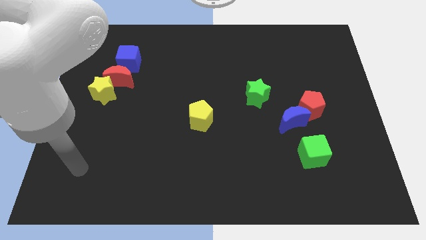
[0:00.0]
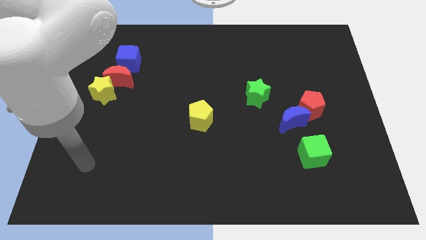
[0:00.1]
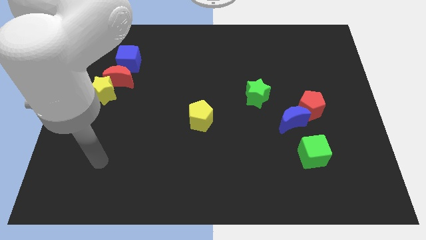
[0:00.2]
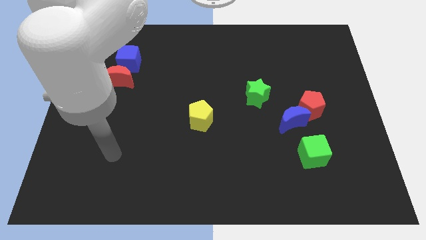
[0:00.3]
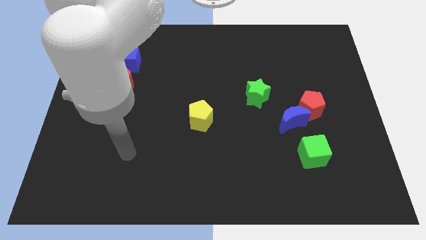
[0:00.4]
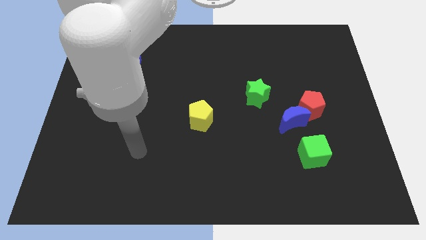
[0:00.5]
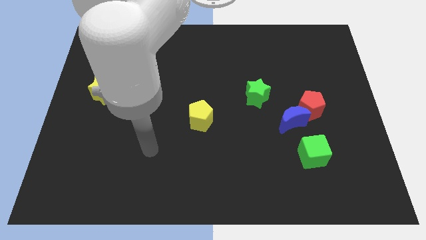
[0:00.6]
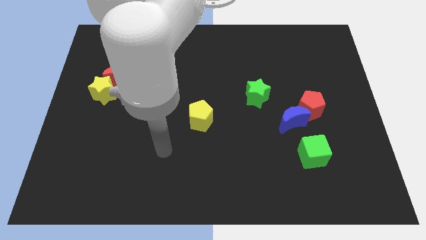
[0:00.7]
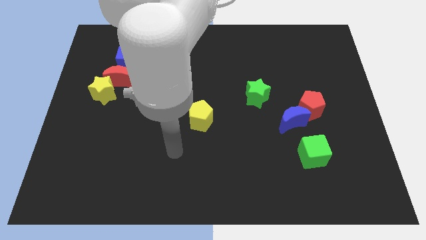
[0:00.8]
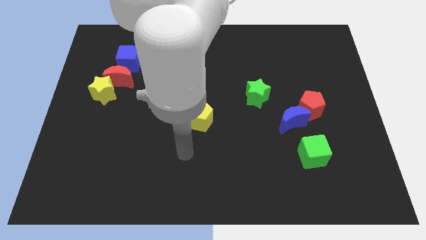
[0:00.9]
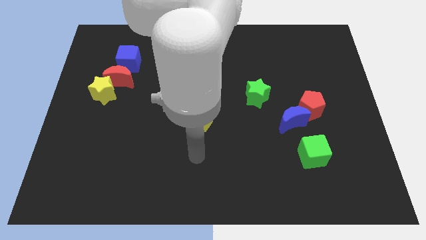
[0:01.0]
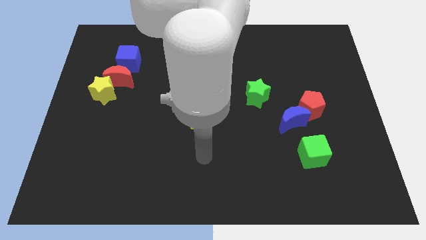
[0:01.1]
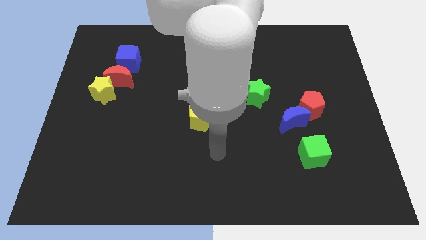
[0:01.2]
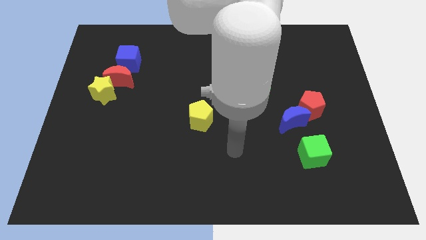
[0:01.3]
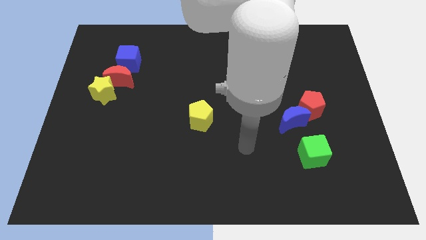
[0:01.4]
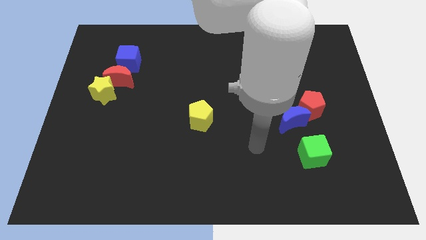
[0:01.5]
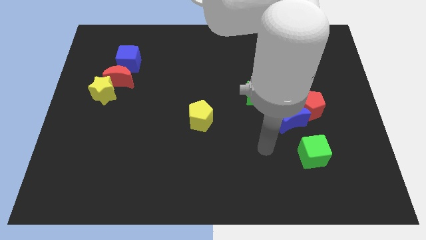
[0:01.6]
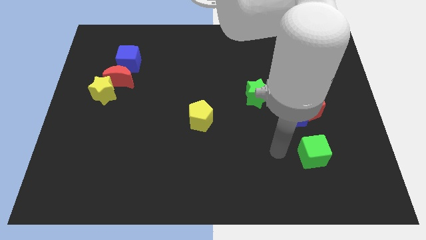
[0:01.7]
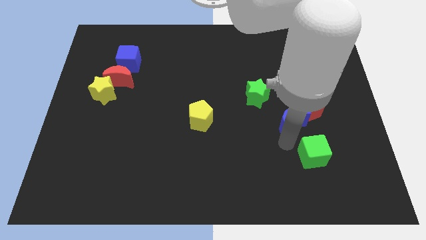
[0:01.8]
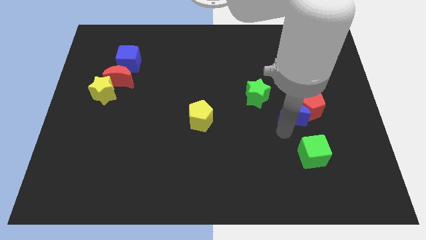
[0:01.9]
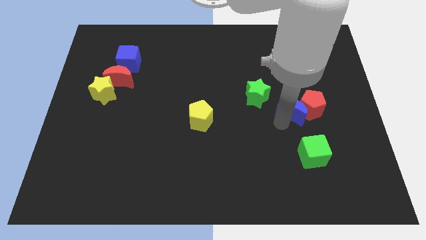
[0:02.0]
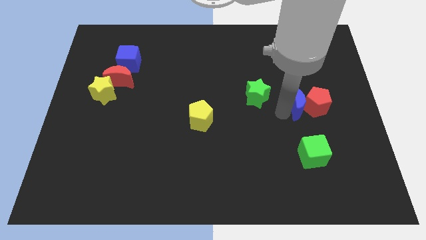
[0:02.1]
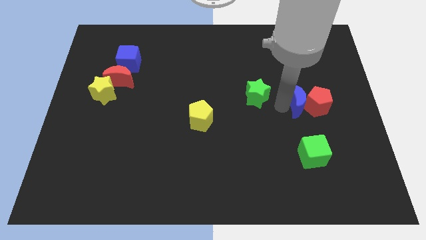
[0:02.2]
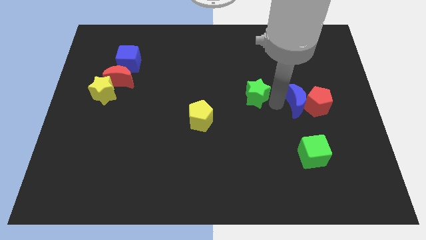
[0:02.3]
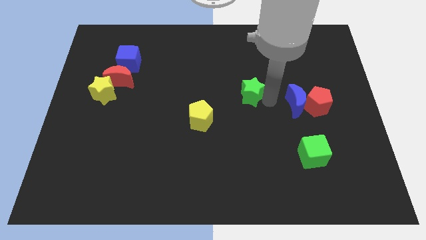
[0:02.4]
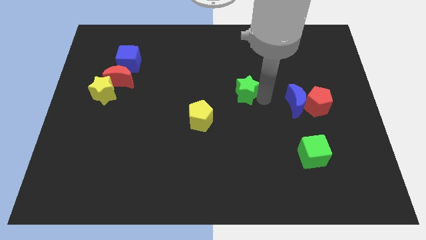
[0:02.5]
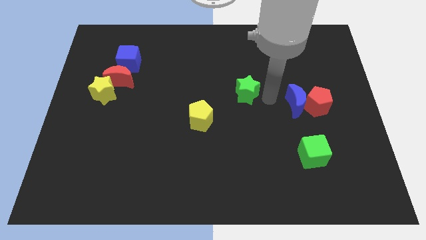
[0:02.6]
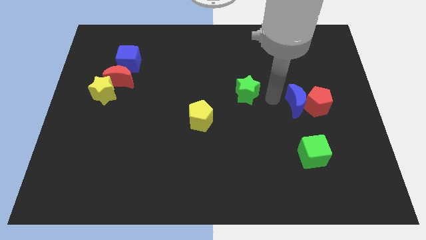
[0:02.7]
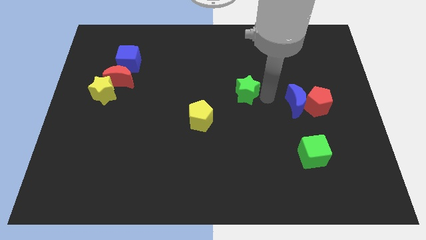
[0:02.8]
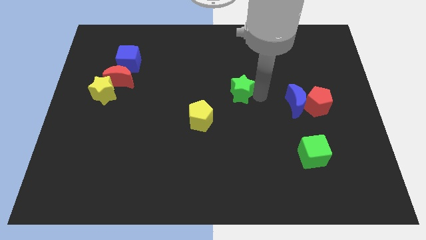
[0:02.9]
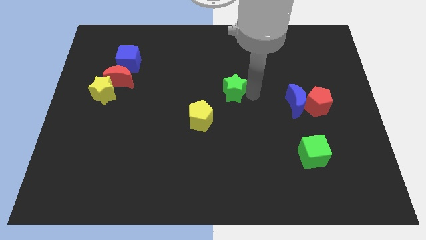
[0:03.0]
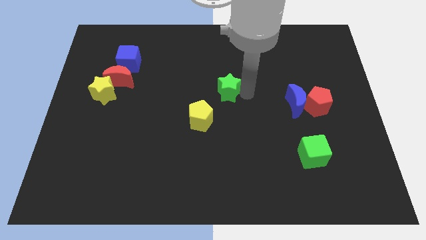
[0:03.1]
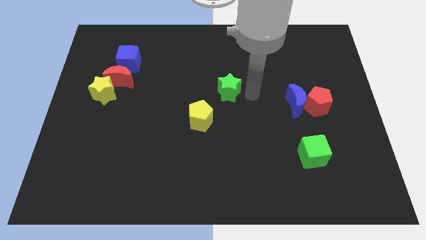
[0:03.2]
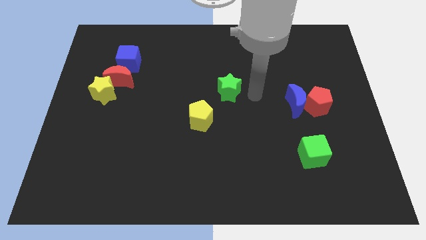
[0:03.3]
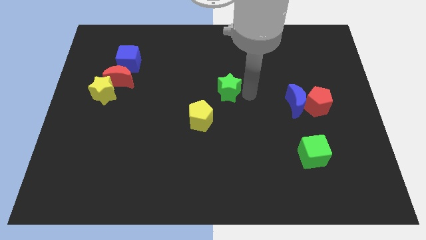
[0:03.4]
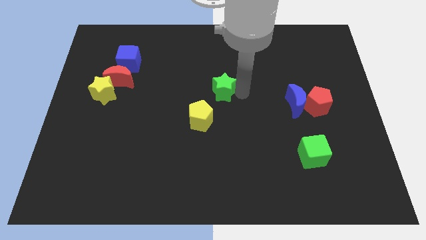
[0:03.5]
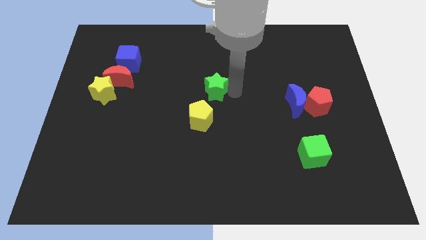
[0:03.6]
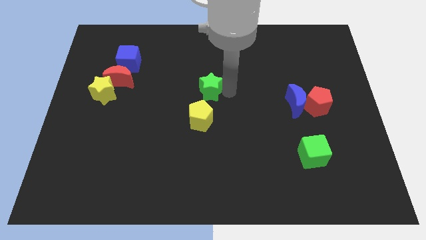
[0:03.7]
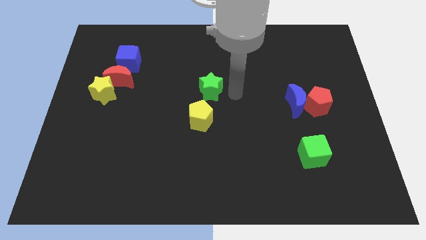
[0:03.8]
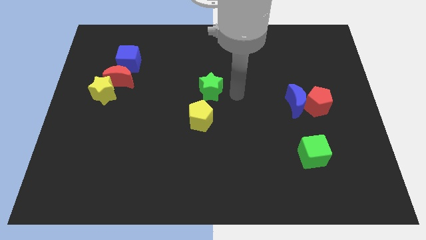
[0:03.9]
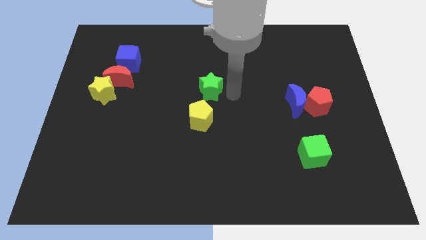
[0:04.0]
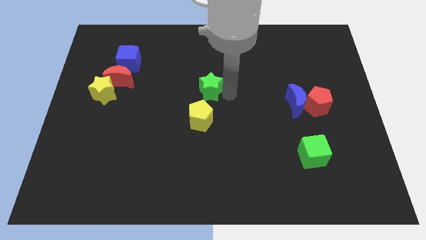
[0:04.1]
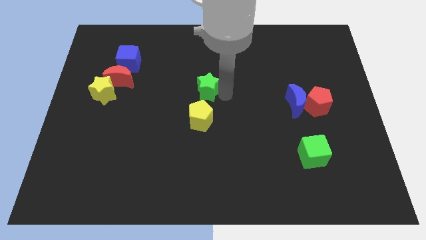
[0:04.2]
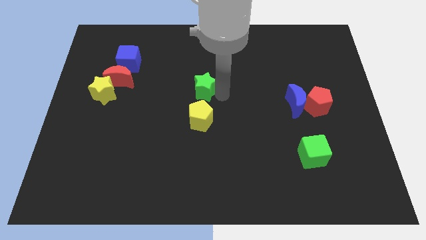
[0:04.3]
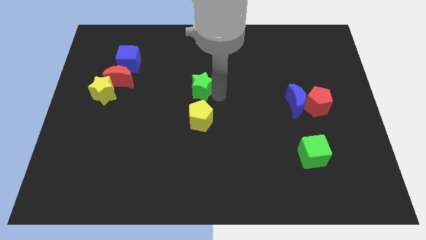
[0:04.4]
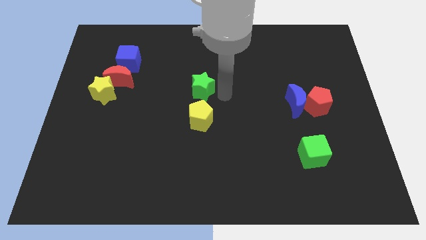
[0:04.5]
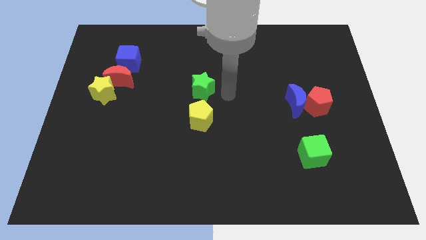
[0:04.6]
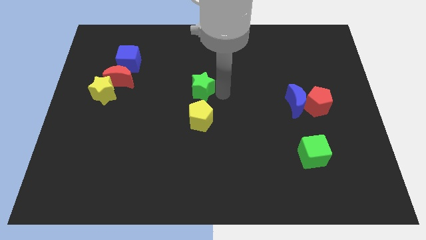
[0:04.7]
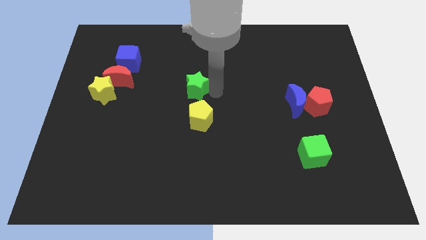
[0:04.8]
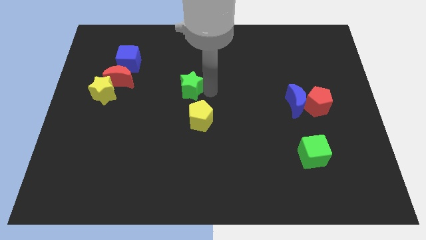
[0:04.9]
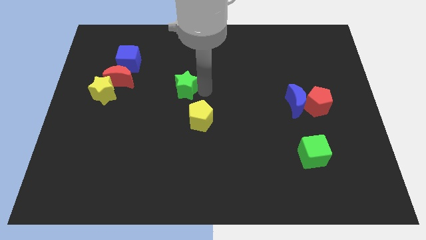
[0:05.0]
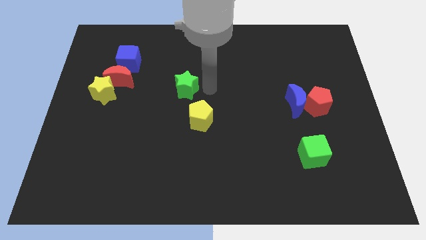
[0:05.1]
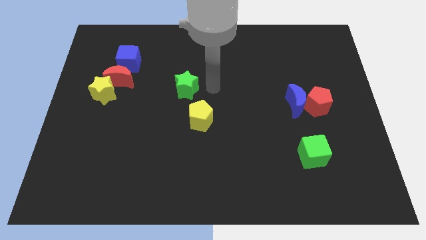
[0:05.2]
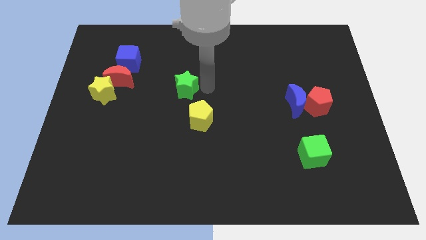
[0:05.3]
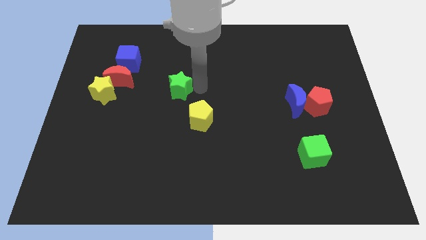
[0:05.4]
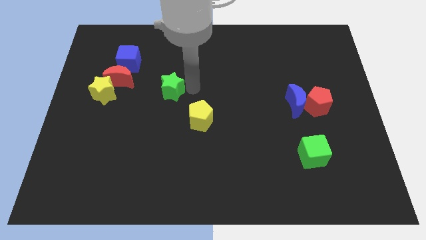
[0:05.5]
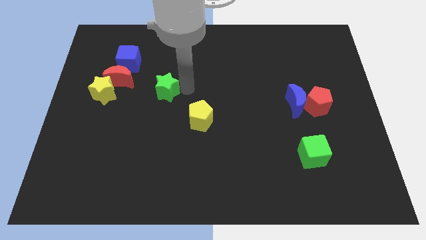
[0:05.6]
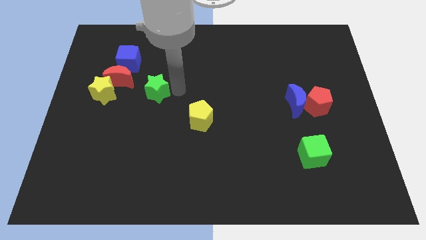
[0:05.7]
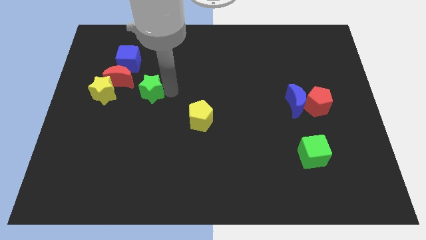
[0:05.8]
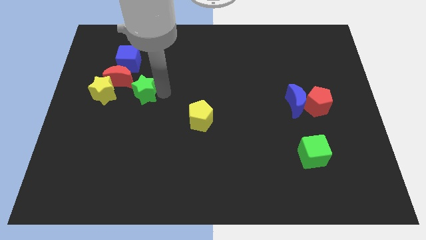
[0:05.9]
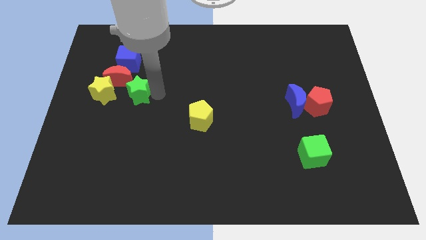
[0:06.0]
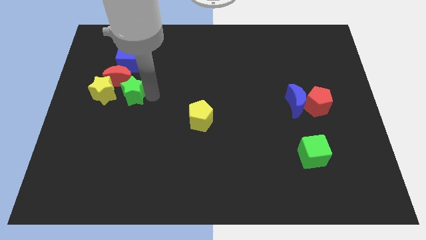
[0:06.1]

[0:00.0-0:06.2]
push the green star close to the red moon
